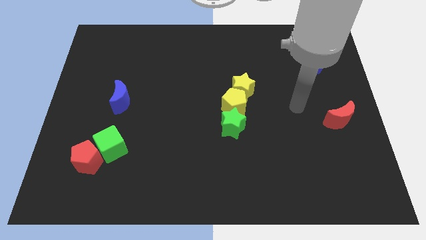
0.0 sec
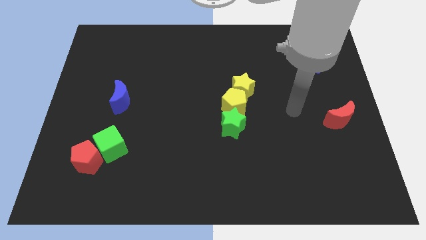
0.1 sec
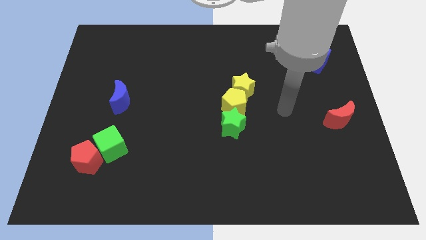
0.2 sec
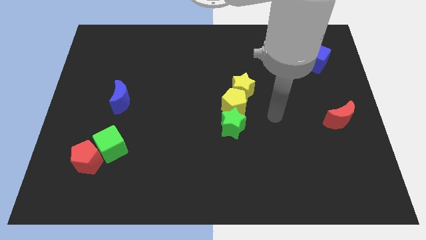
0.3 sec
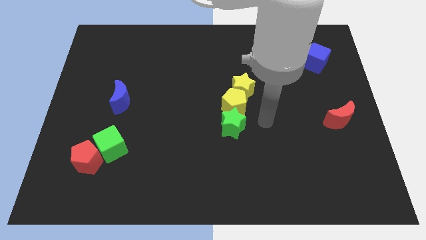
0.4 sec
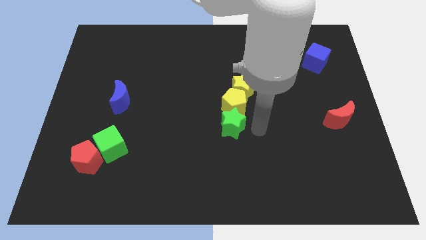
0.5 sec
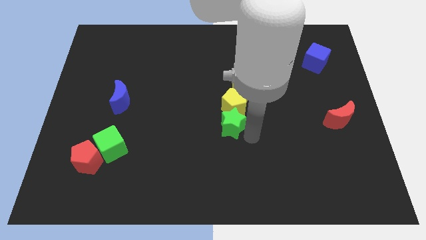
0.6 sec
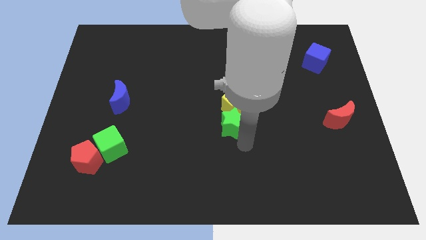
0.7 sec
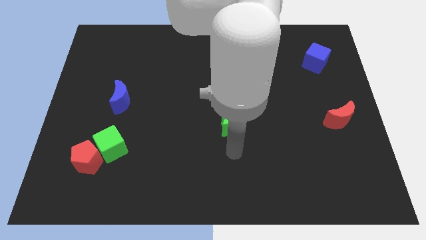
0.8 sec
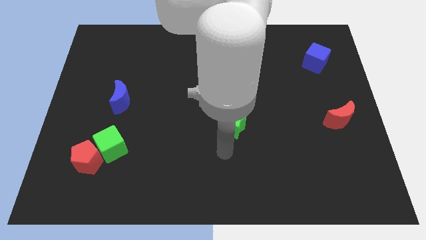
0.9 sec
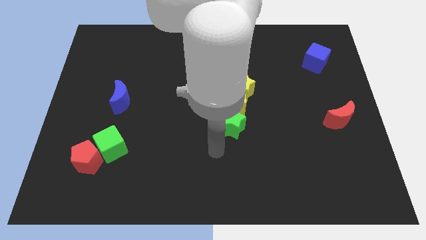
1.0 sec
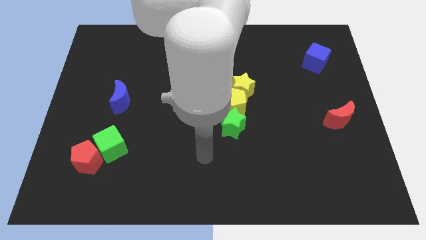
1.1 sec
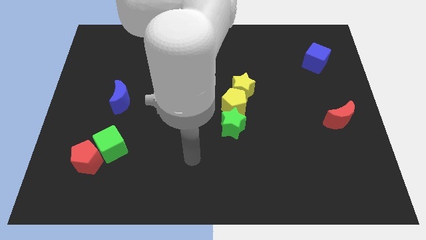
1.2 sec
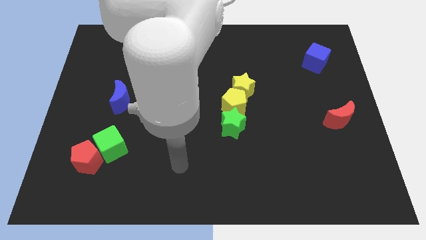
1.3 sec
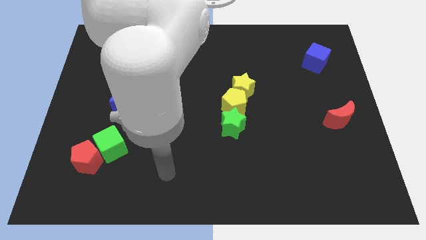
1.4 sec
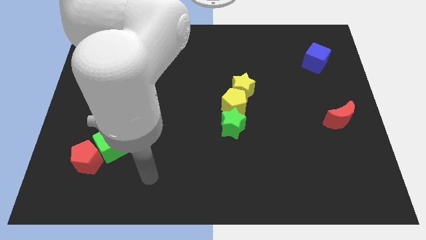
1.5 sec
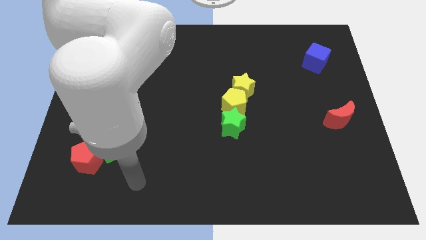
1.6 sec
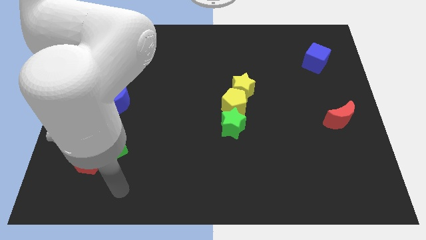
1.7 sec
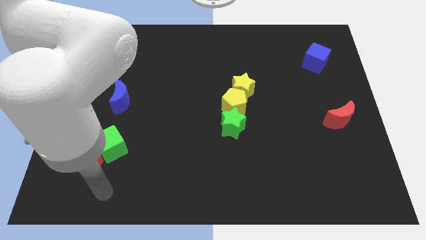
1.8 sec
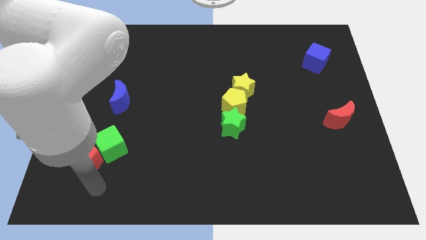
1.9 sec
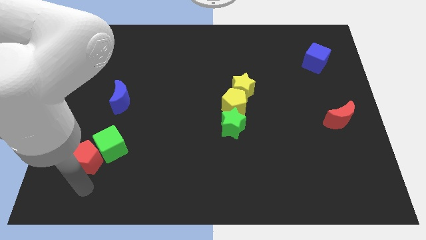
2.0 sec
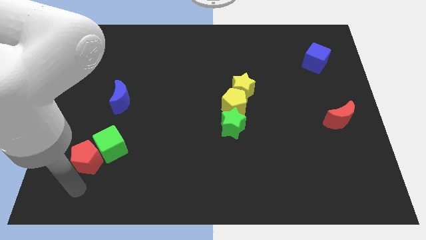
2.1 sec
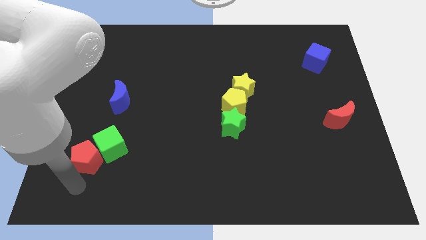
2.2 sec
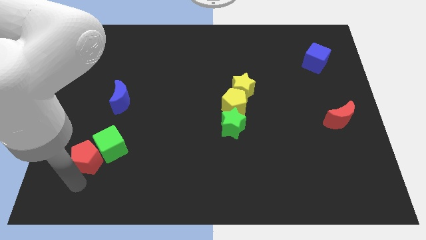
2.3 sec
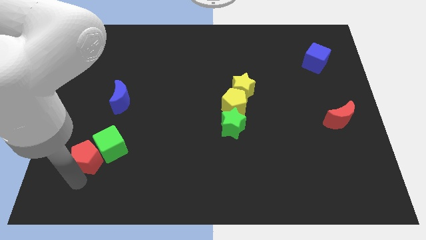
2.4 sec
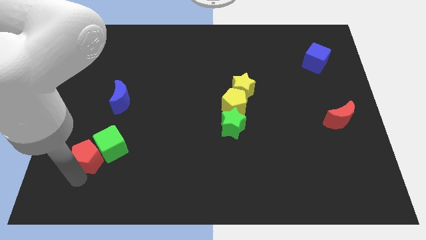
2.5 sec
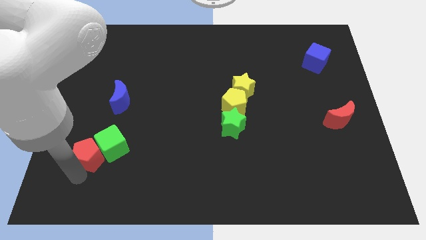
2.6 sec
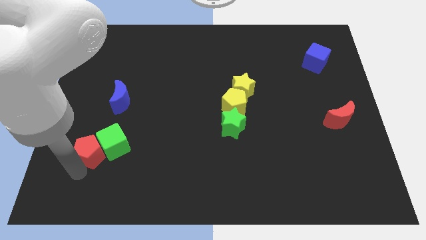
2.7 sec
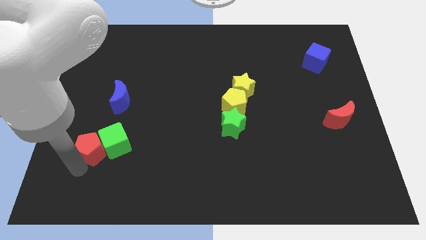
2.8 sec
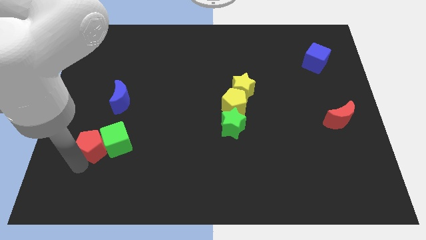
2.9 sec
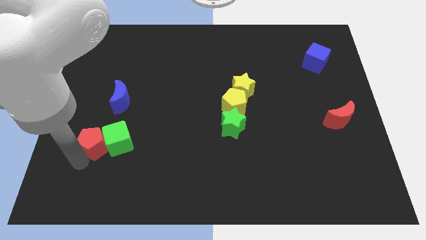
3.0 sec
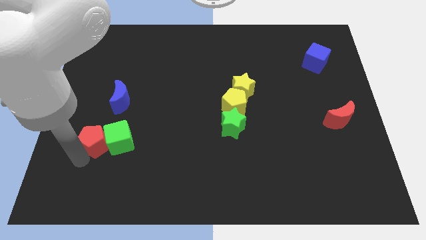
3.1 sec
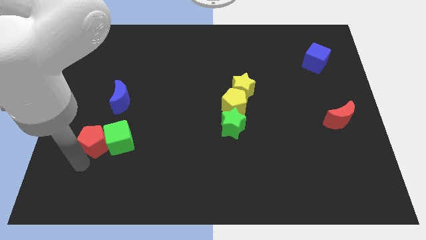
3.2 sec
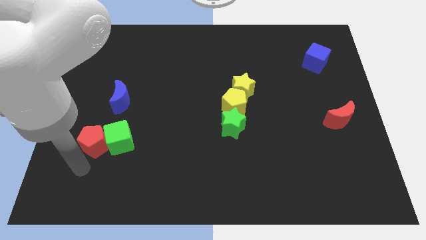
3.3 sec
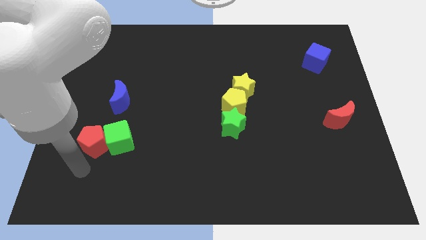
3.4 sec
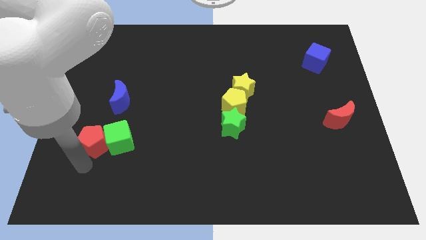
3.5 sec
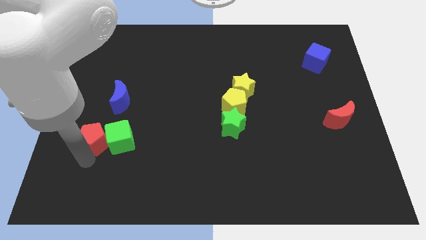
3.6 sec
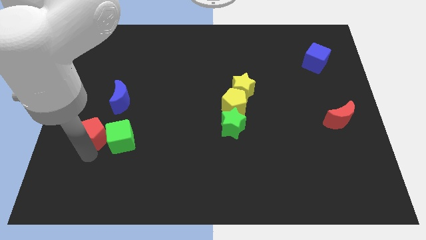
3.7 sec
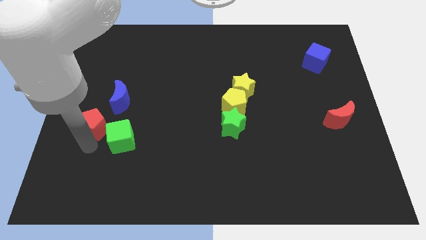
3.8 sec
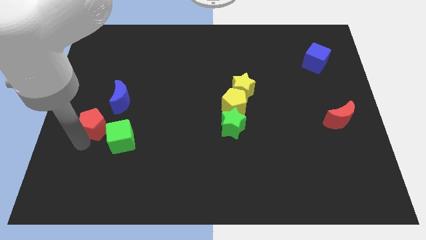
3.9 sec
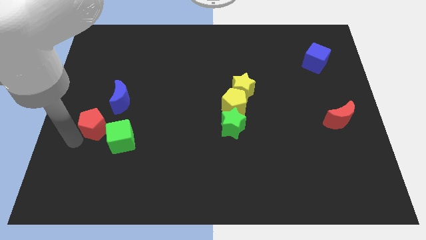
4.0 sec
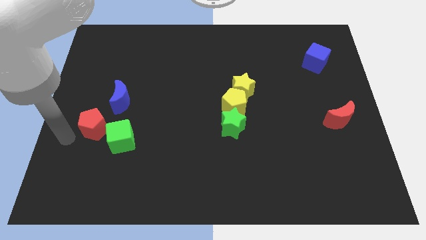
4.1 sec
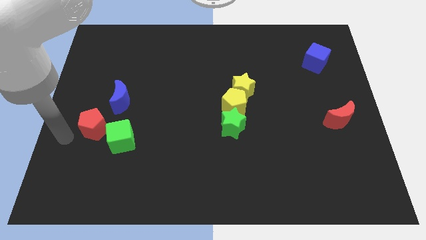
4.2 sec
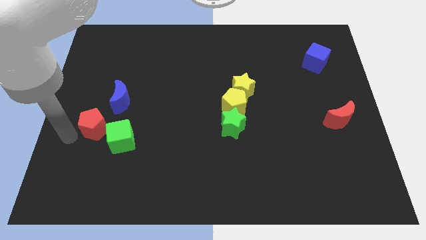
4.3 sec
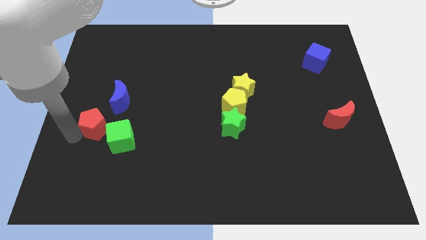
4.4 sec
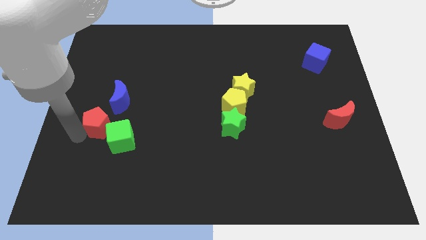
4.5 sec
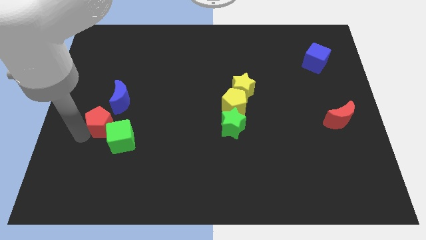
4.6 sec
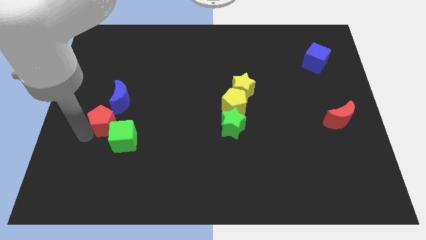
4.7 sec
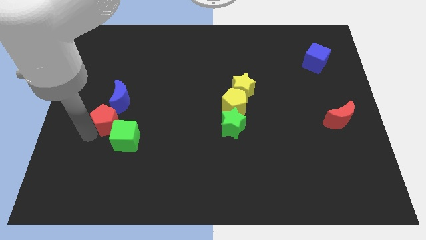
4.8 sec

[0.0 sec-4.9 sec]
move the red pentagon upwards and right slightly

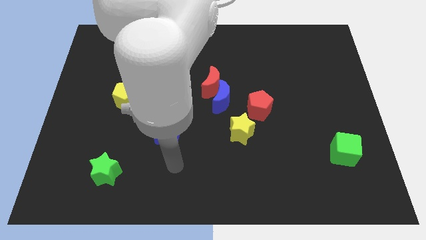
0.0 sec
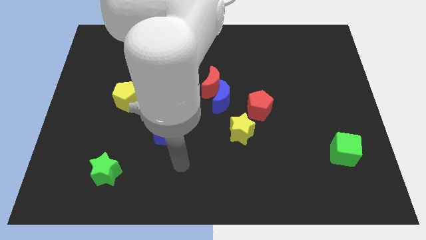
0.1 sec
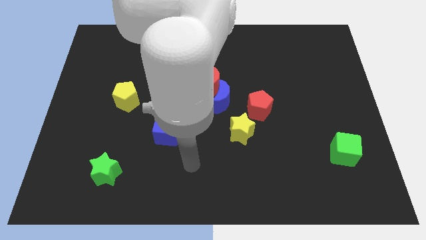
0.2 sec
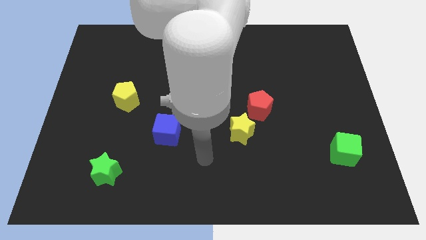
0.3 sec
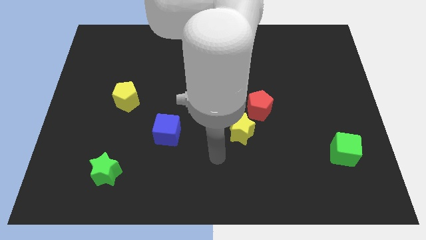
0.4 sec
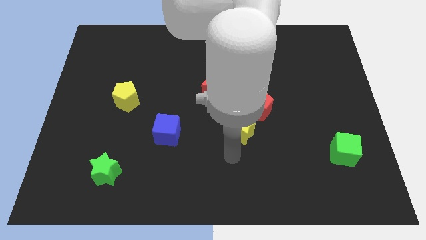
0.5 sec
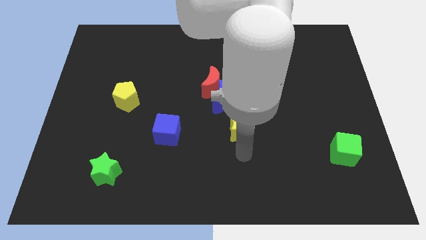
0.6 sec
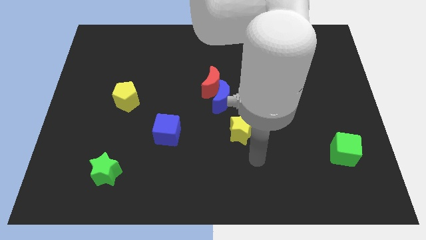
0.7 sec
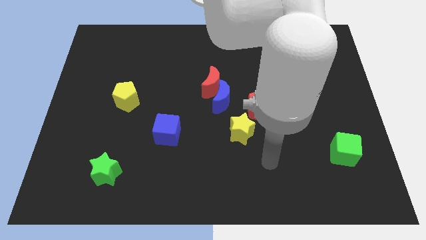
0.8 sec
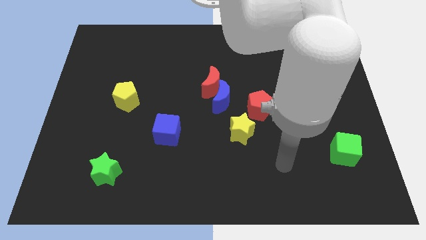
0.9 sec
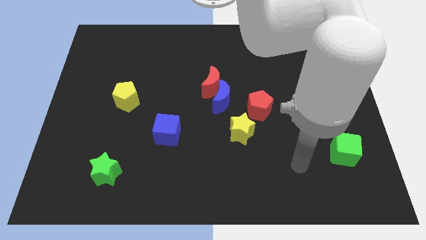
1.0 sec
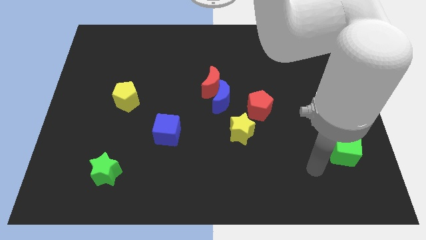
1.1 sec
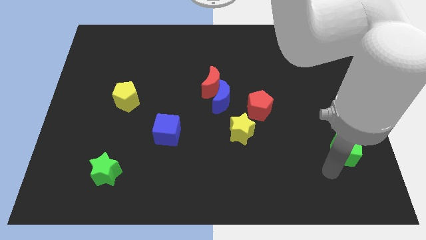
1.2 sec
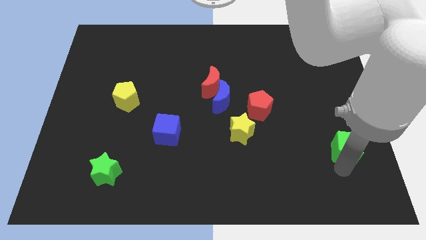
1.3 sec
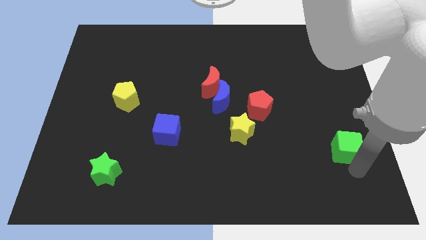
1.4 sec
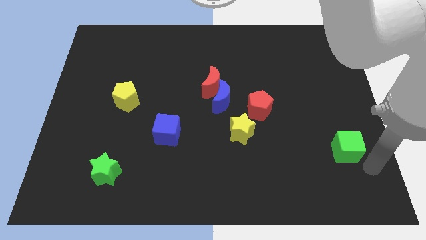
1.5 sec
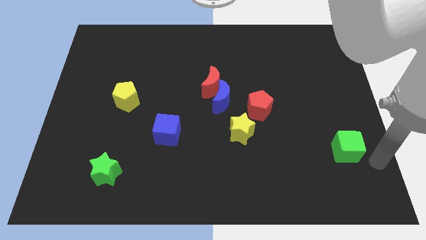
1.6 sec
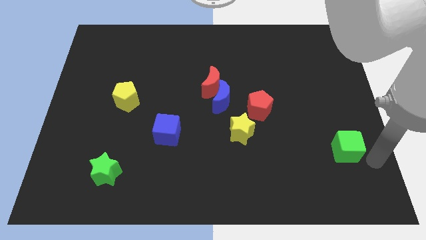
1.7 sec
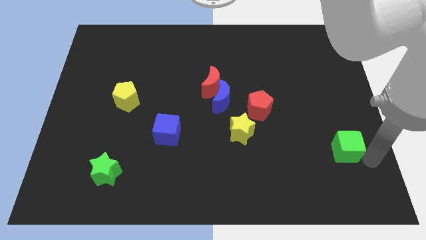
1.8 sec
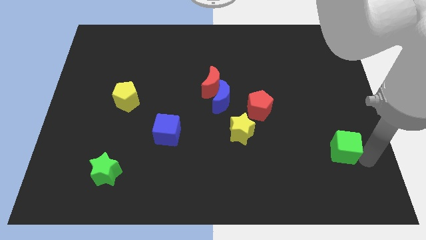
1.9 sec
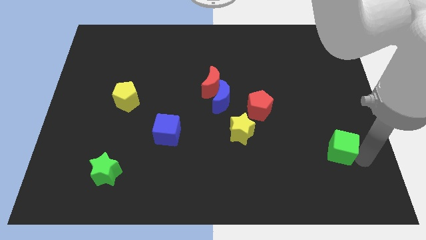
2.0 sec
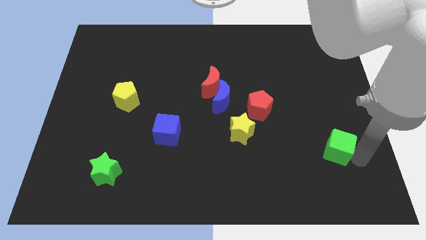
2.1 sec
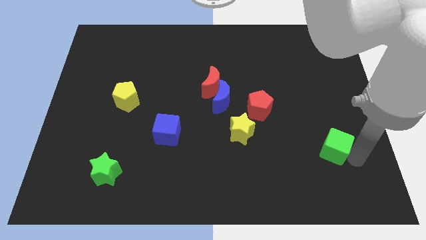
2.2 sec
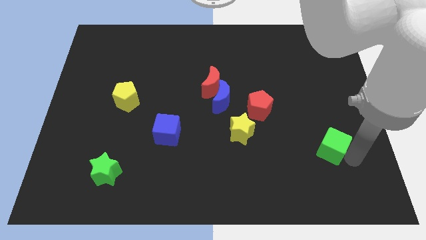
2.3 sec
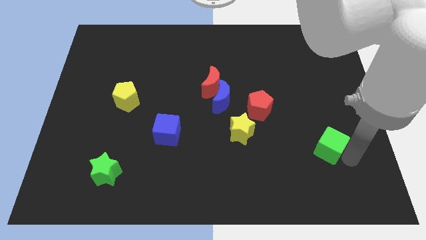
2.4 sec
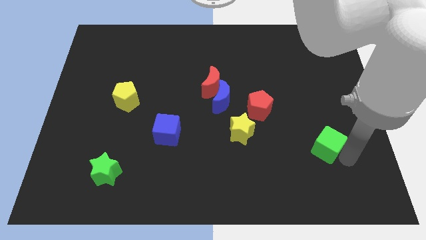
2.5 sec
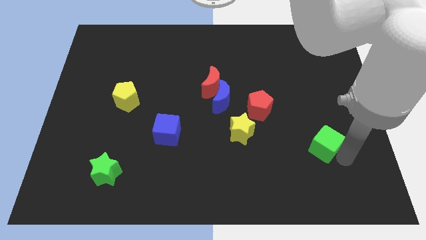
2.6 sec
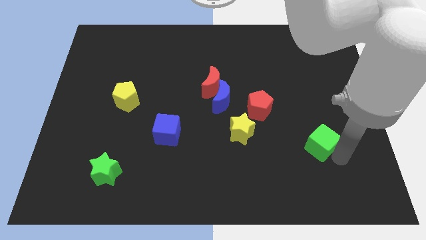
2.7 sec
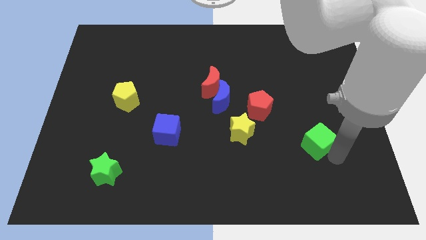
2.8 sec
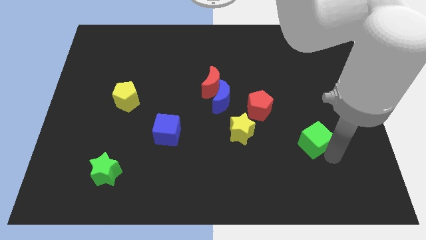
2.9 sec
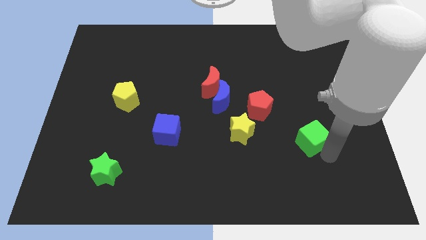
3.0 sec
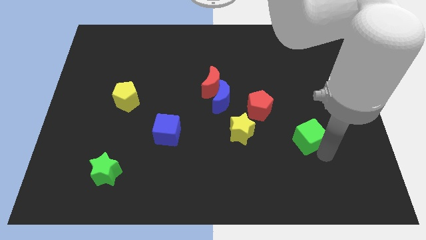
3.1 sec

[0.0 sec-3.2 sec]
push the green cube diagonally up and left a little bit

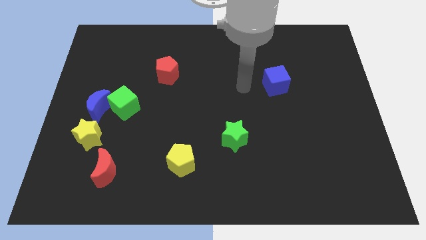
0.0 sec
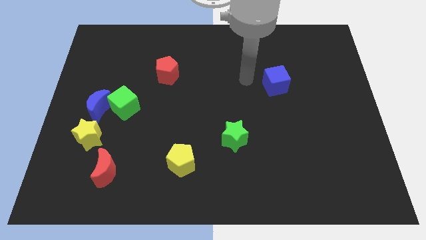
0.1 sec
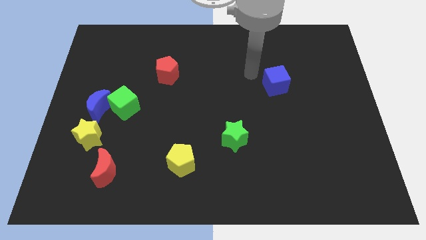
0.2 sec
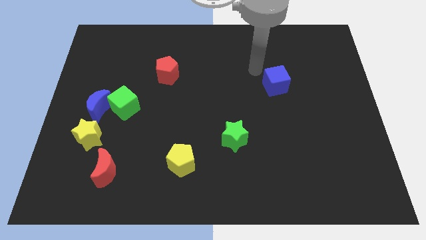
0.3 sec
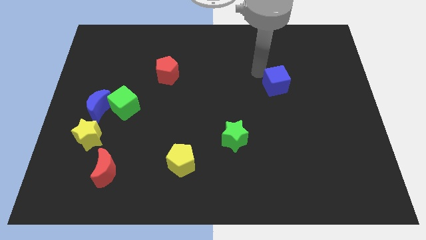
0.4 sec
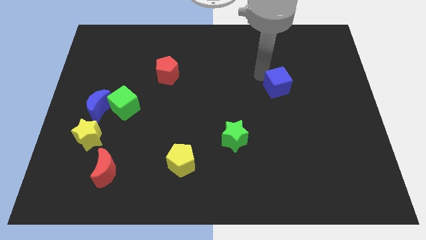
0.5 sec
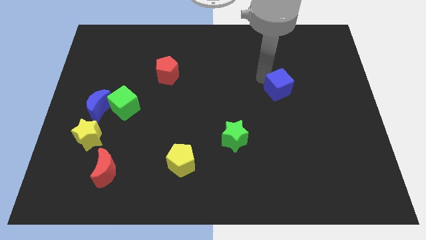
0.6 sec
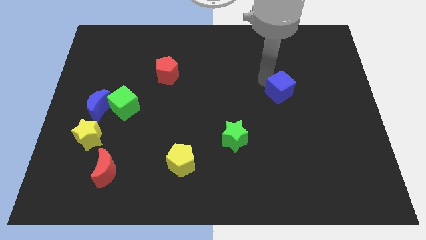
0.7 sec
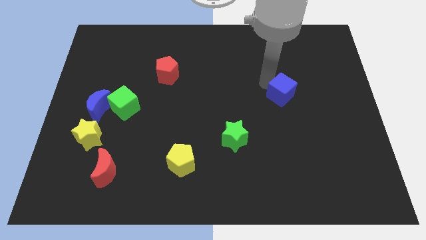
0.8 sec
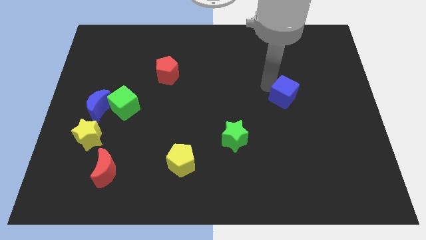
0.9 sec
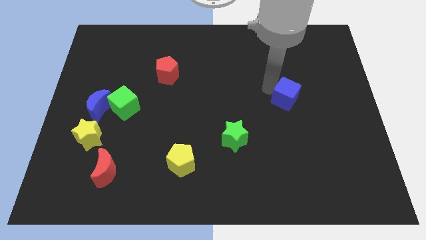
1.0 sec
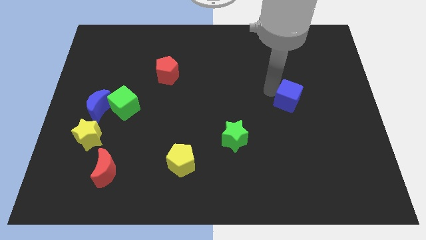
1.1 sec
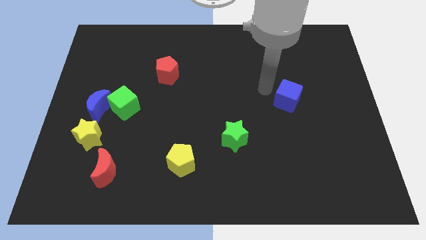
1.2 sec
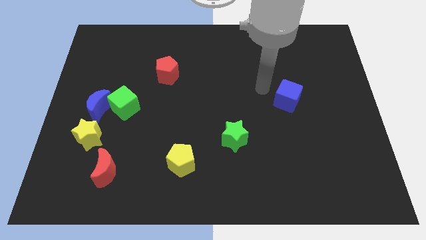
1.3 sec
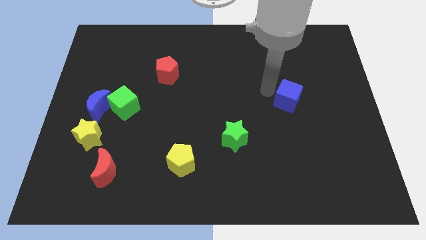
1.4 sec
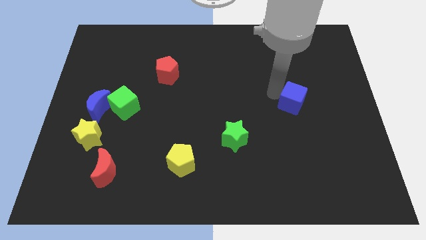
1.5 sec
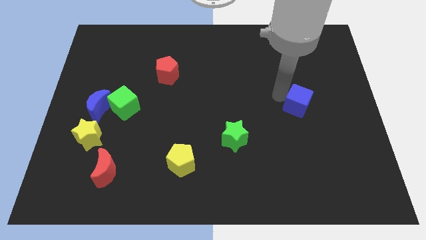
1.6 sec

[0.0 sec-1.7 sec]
slightly slide the blue cube downwards and then to the right
